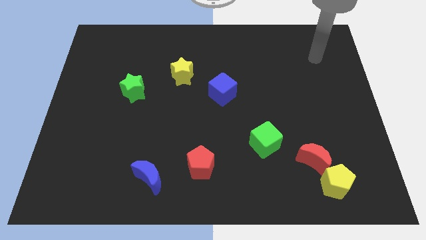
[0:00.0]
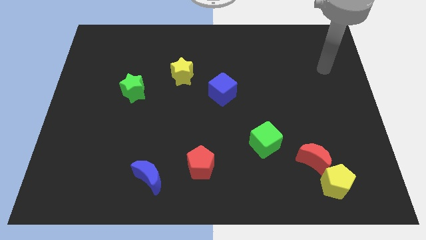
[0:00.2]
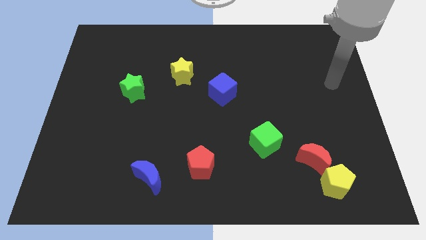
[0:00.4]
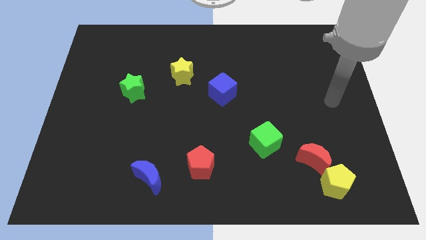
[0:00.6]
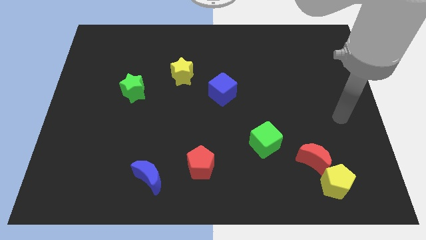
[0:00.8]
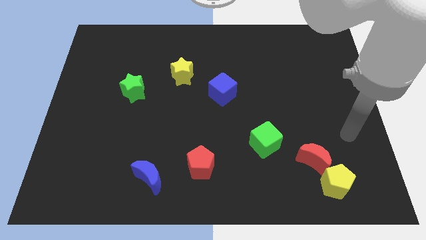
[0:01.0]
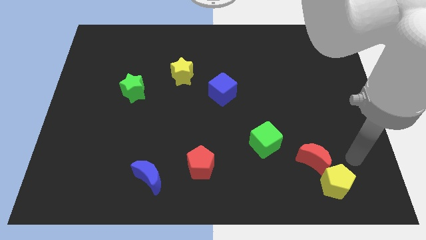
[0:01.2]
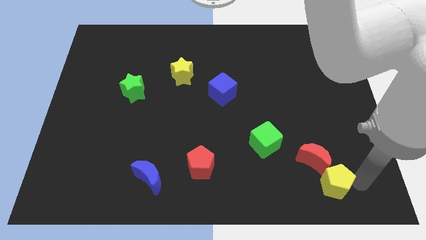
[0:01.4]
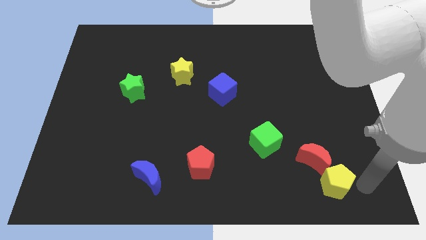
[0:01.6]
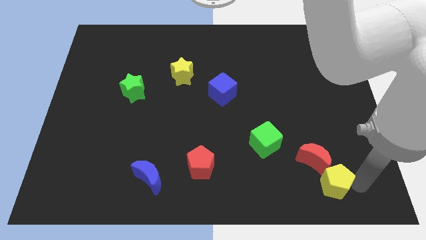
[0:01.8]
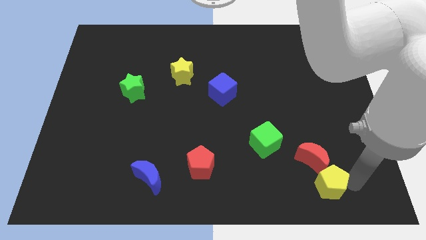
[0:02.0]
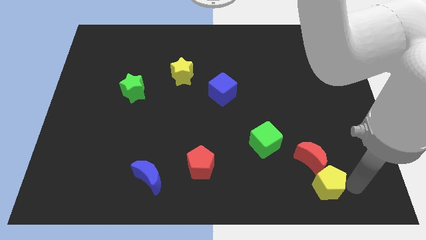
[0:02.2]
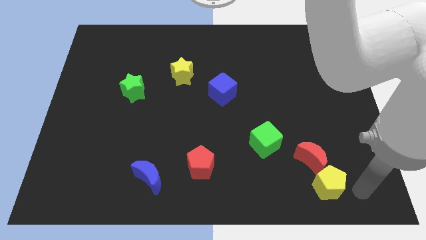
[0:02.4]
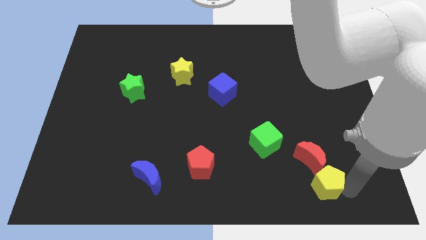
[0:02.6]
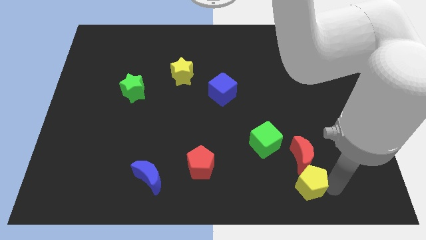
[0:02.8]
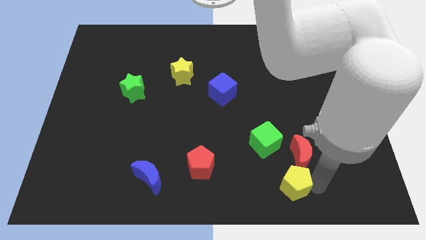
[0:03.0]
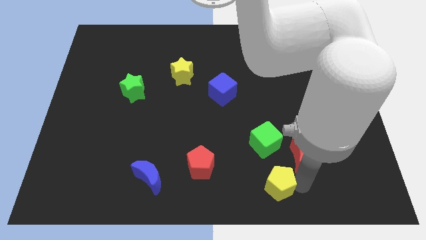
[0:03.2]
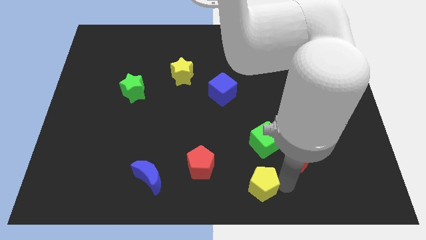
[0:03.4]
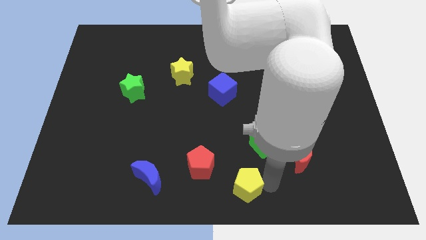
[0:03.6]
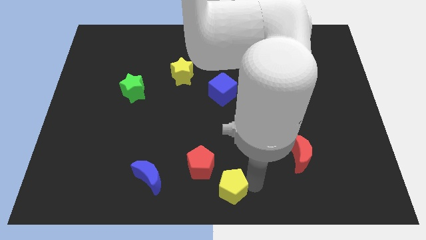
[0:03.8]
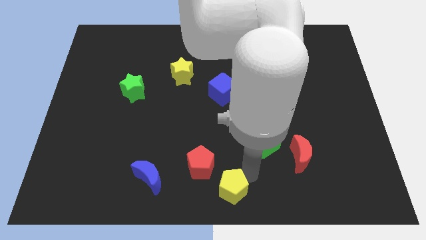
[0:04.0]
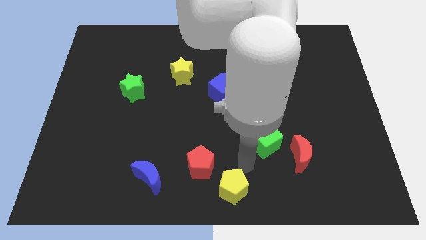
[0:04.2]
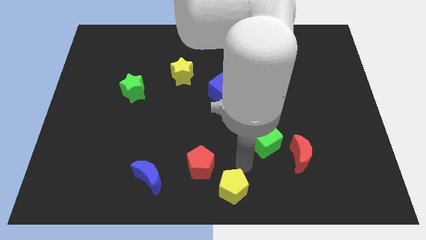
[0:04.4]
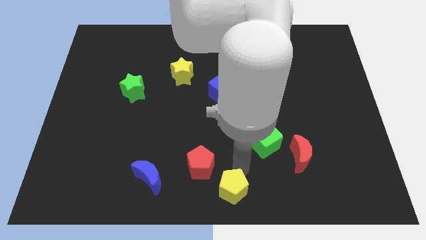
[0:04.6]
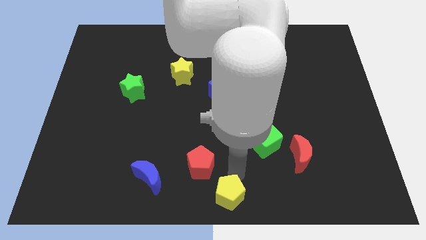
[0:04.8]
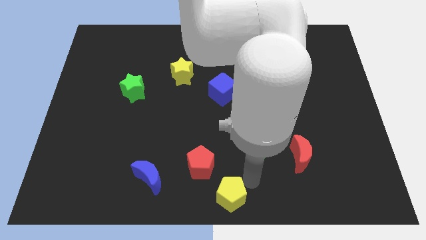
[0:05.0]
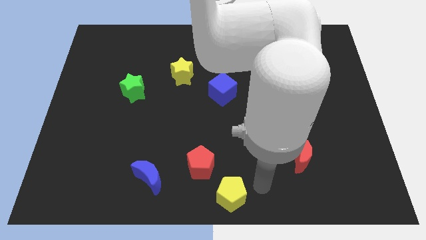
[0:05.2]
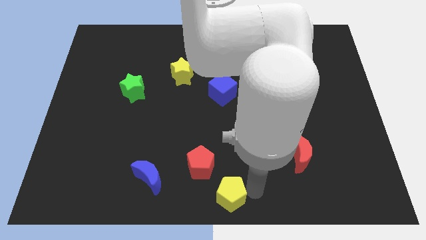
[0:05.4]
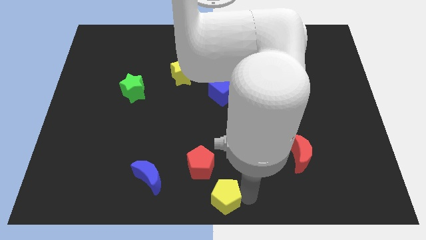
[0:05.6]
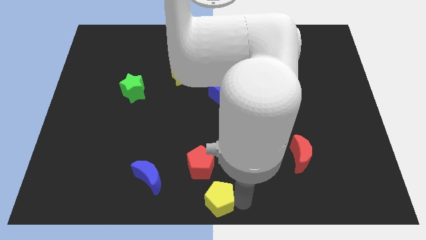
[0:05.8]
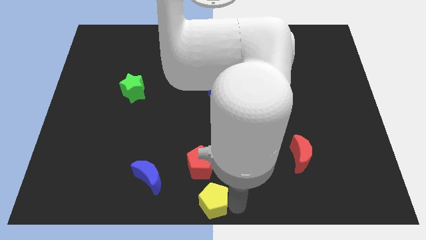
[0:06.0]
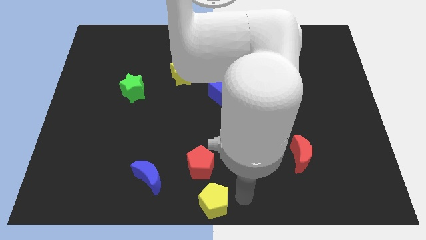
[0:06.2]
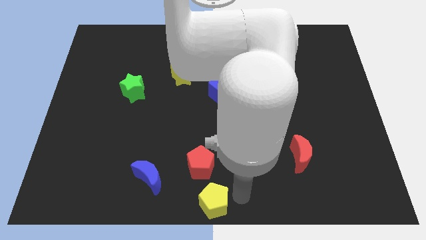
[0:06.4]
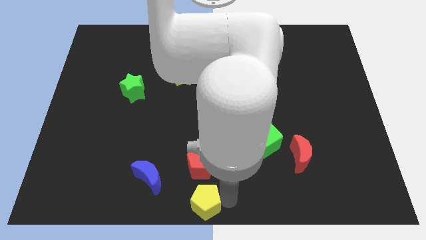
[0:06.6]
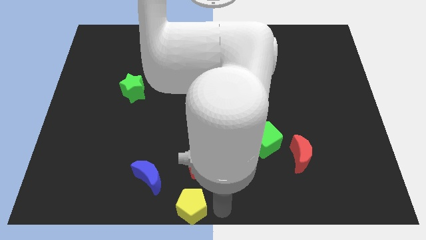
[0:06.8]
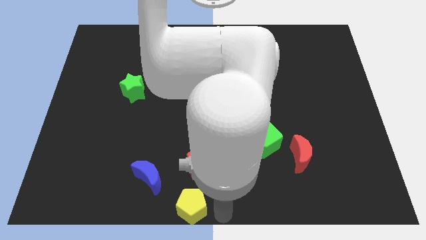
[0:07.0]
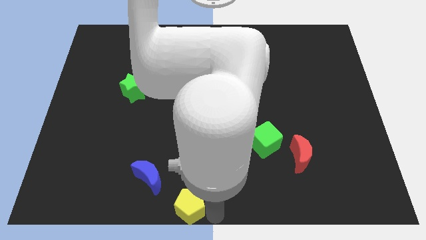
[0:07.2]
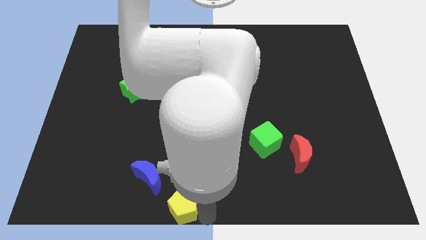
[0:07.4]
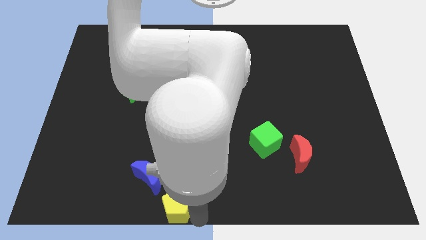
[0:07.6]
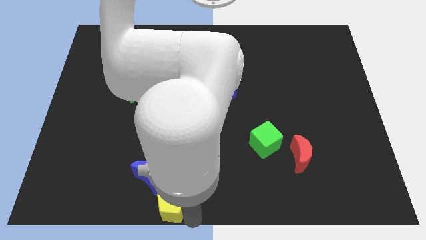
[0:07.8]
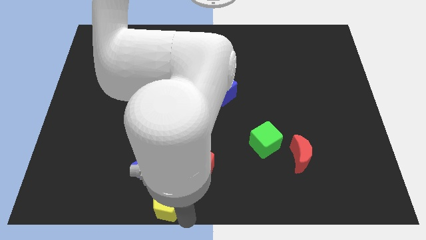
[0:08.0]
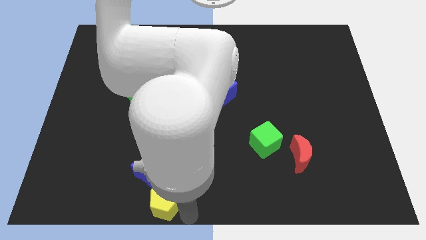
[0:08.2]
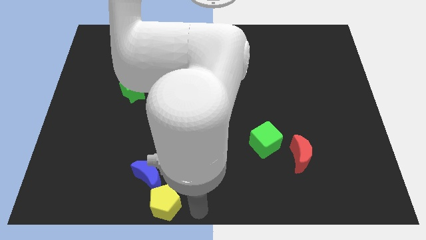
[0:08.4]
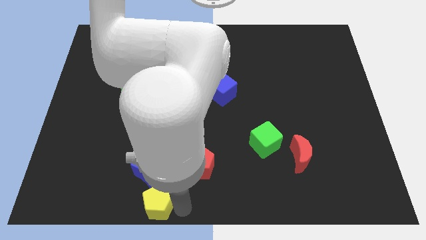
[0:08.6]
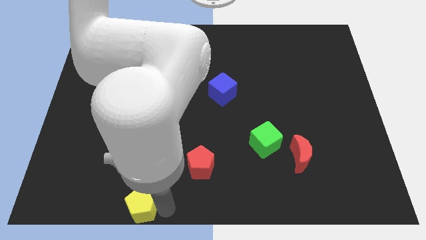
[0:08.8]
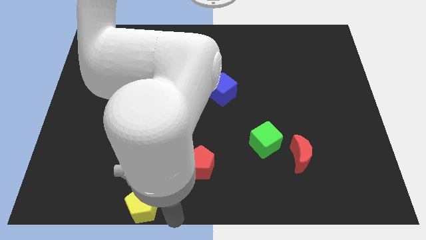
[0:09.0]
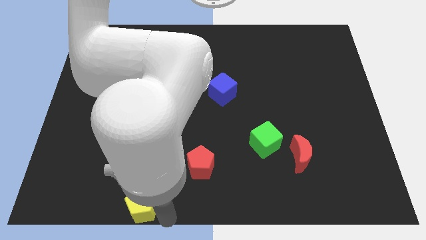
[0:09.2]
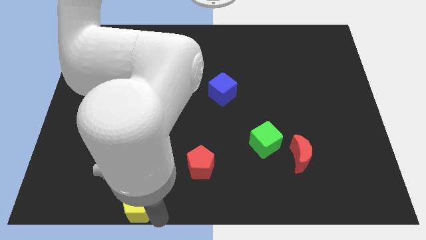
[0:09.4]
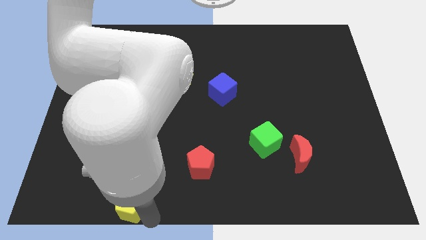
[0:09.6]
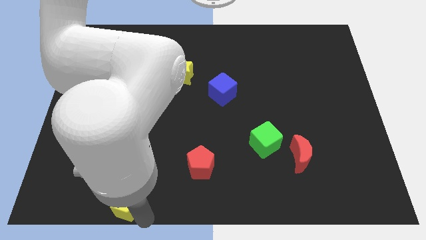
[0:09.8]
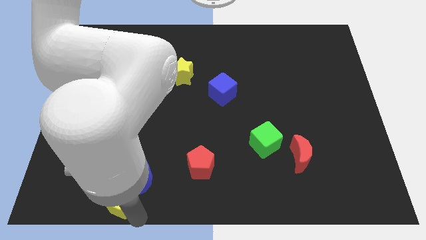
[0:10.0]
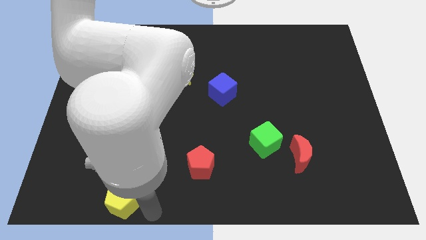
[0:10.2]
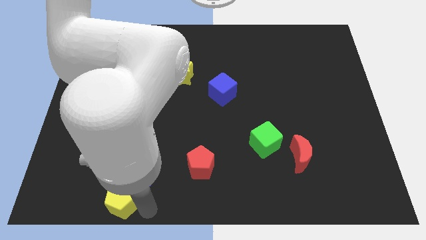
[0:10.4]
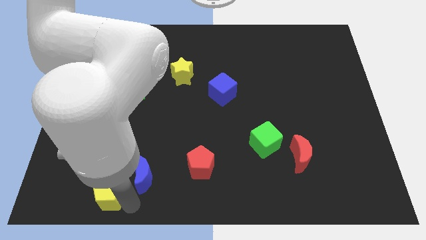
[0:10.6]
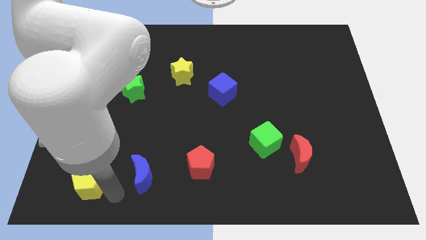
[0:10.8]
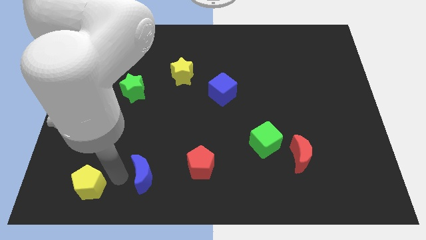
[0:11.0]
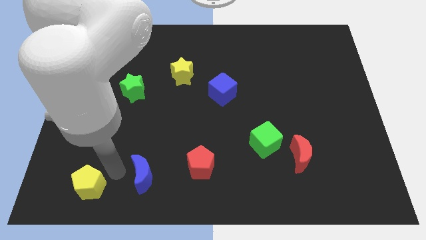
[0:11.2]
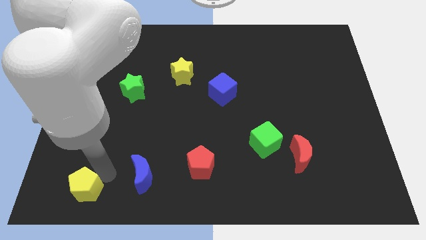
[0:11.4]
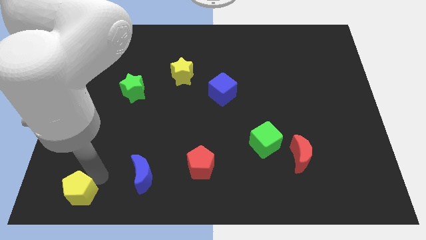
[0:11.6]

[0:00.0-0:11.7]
push the yellow pentagon to the lower left corner

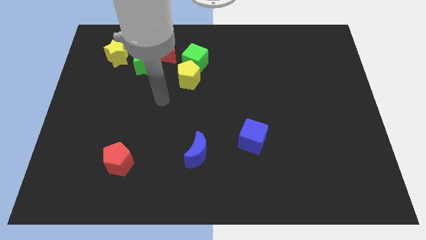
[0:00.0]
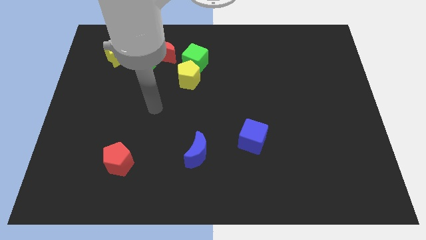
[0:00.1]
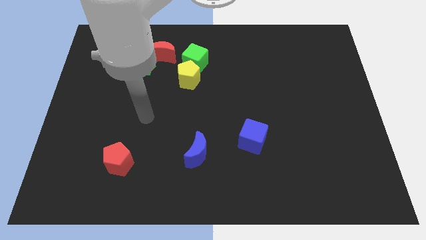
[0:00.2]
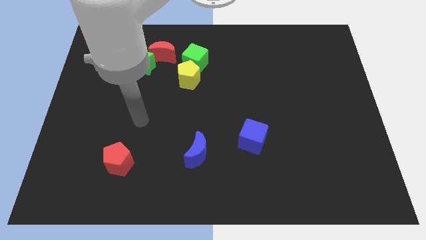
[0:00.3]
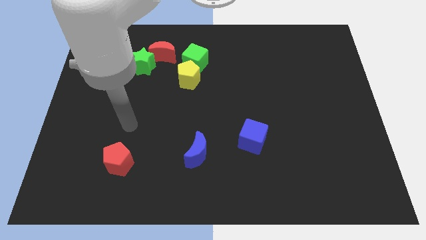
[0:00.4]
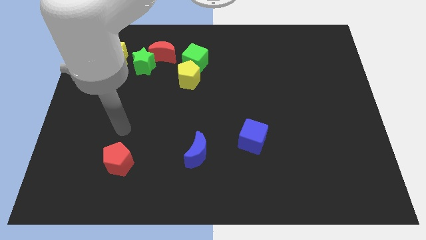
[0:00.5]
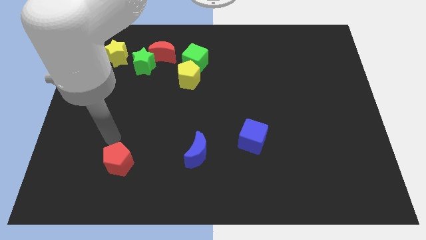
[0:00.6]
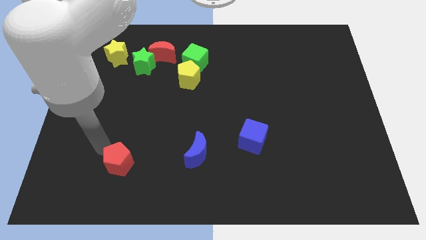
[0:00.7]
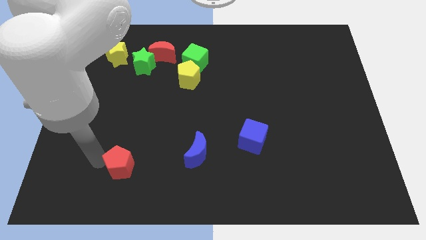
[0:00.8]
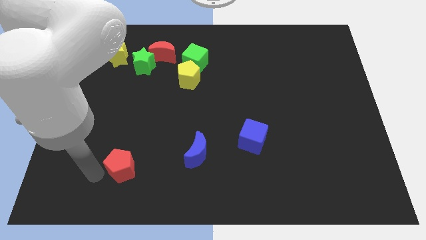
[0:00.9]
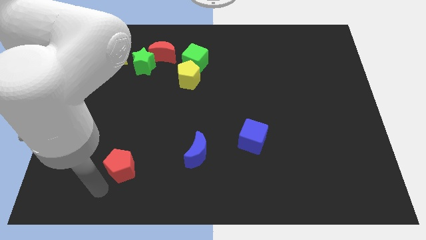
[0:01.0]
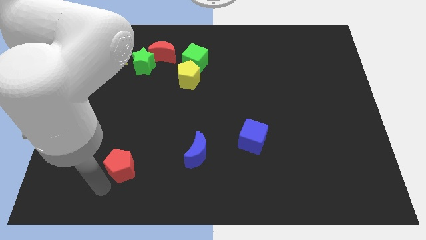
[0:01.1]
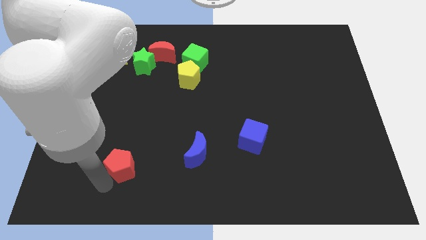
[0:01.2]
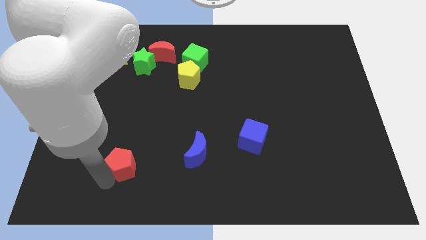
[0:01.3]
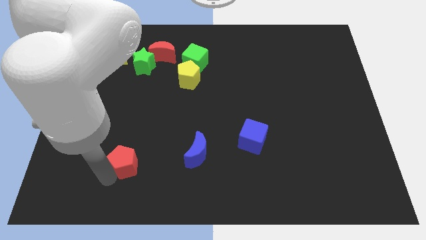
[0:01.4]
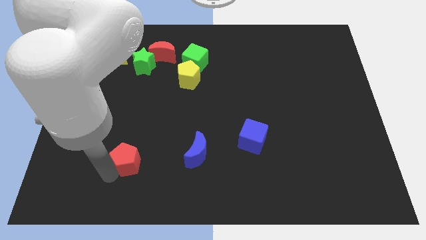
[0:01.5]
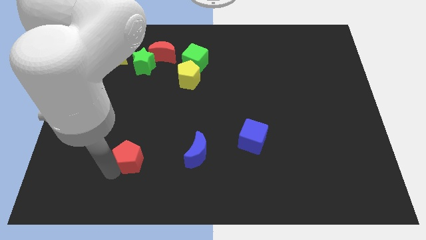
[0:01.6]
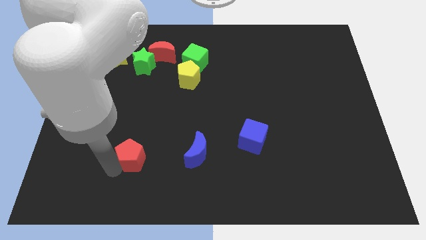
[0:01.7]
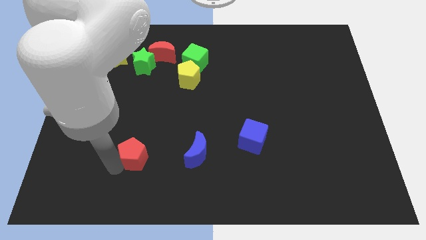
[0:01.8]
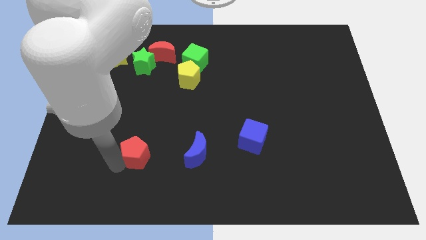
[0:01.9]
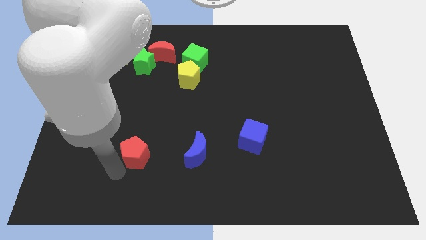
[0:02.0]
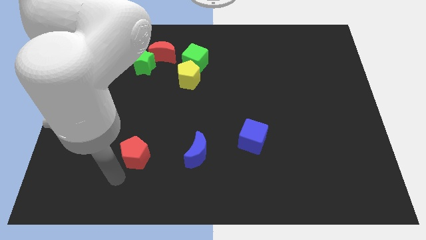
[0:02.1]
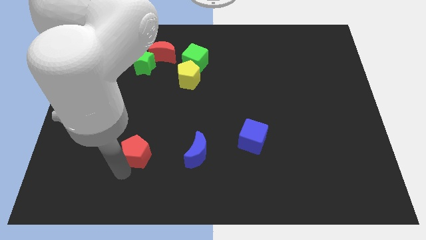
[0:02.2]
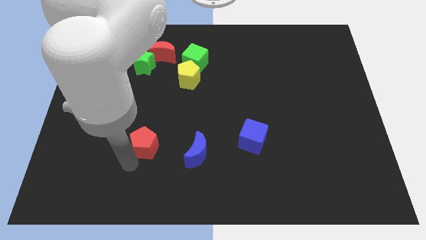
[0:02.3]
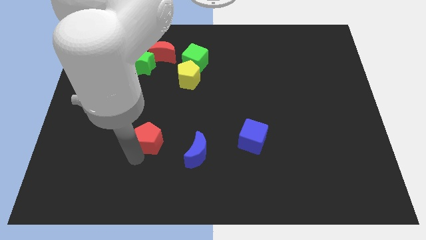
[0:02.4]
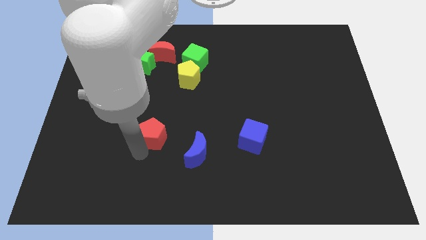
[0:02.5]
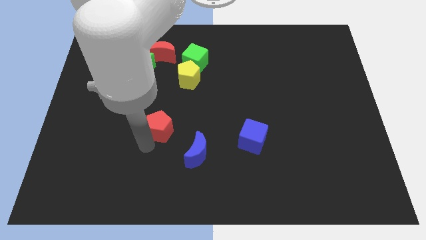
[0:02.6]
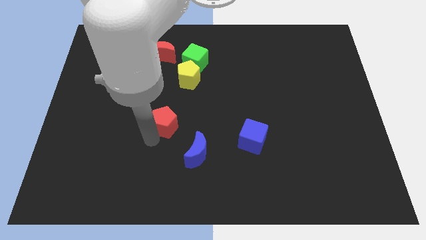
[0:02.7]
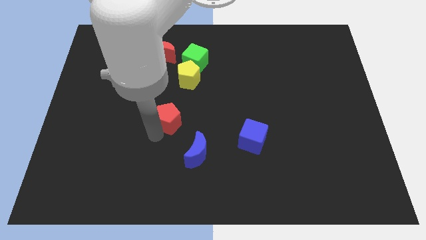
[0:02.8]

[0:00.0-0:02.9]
push the red pentagon to the middle
